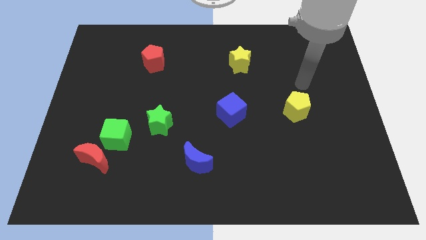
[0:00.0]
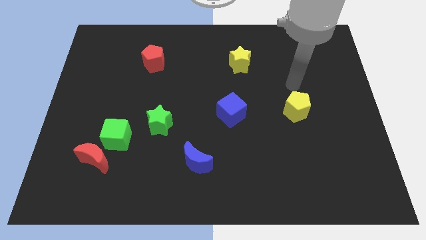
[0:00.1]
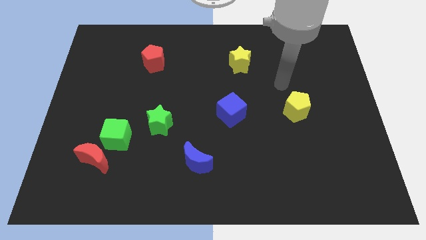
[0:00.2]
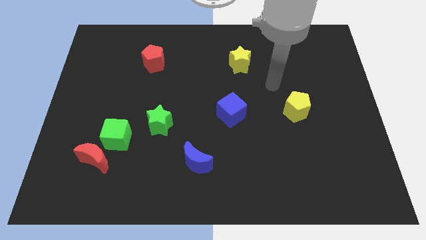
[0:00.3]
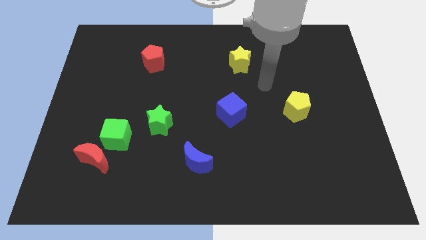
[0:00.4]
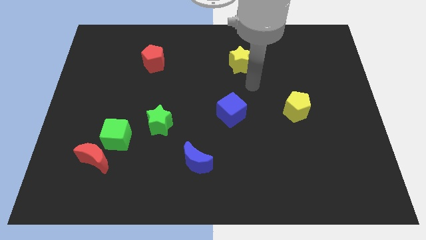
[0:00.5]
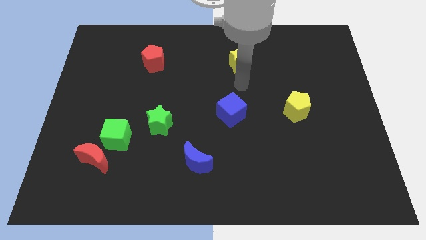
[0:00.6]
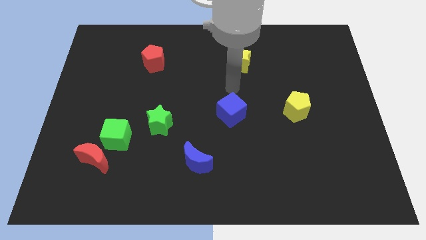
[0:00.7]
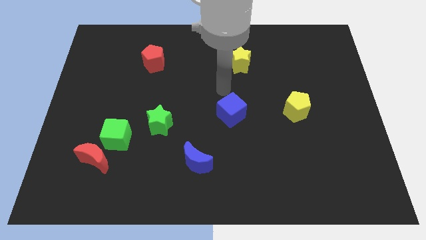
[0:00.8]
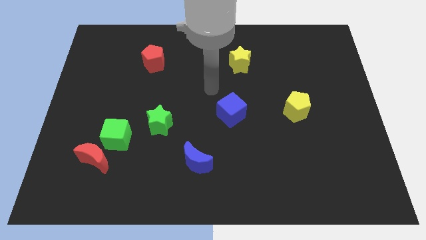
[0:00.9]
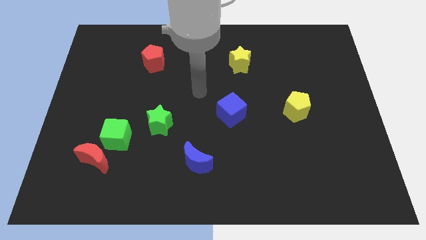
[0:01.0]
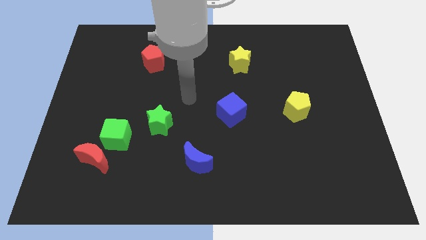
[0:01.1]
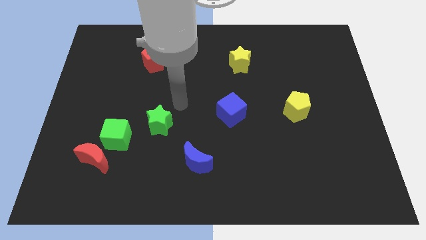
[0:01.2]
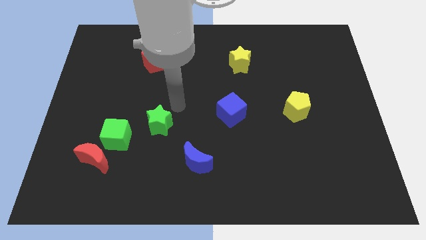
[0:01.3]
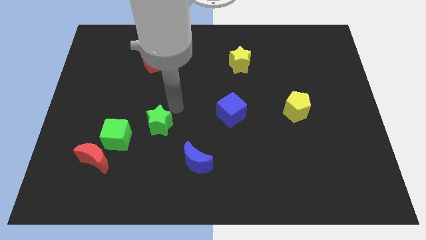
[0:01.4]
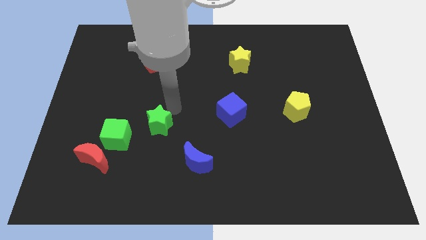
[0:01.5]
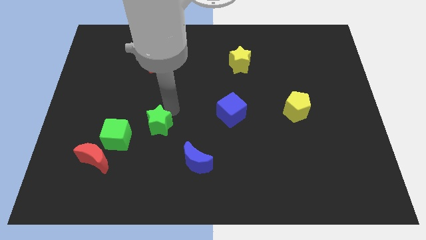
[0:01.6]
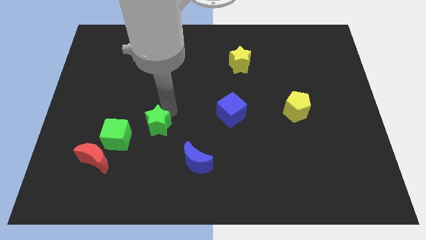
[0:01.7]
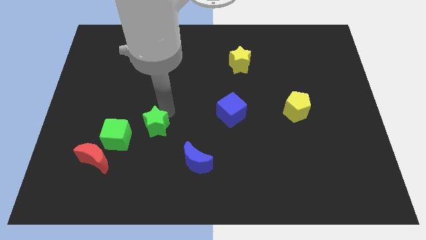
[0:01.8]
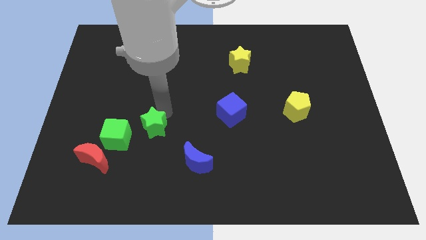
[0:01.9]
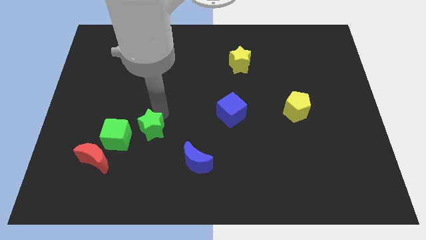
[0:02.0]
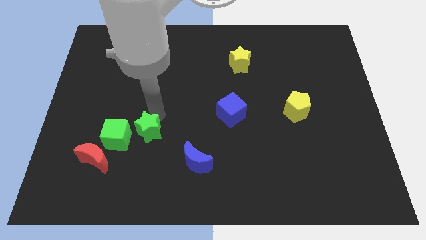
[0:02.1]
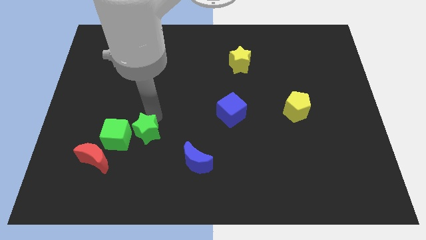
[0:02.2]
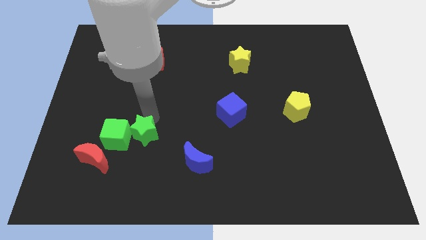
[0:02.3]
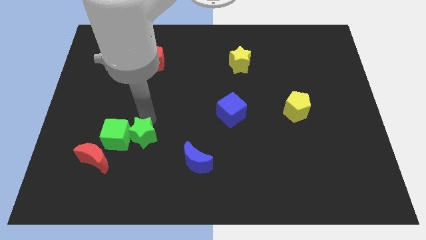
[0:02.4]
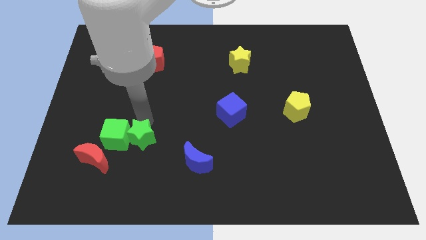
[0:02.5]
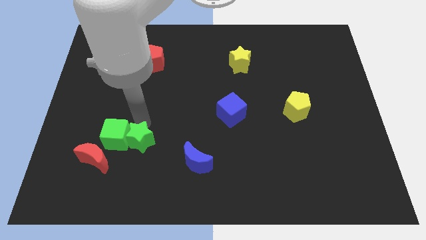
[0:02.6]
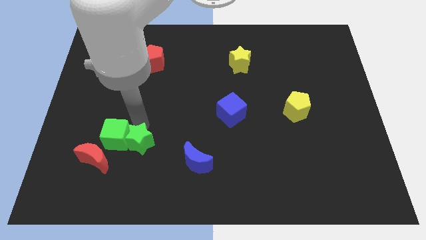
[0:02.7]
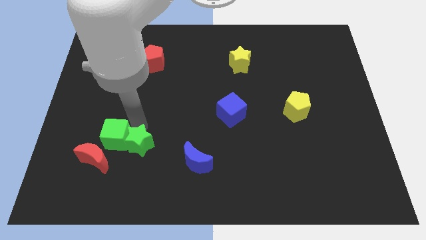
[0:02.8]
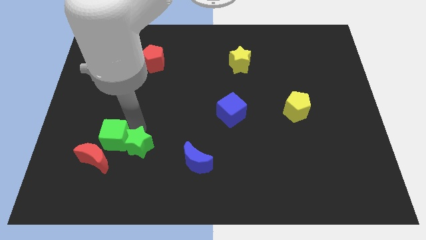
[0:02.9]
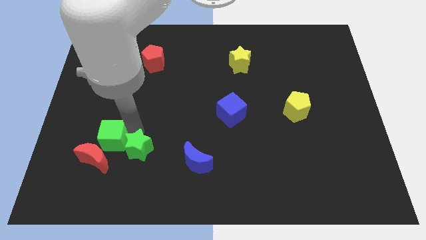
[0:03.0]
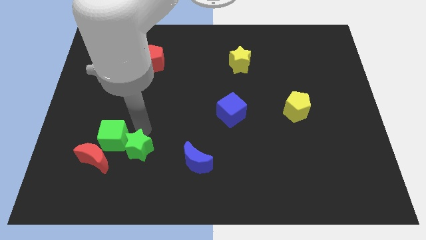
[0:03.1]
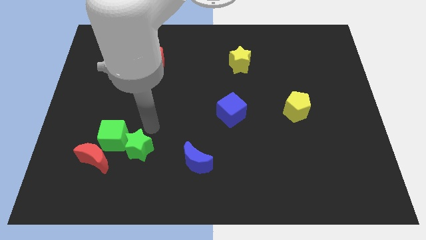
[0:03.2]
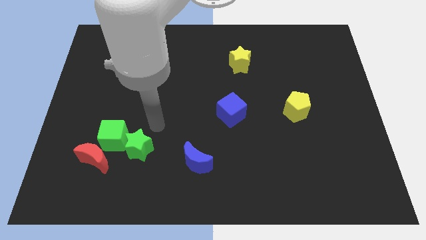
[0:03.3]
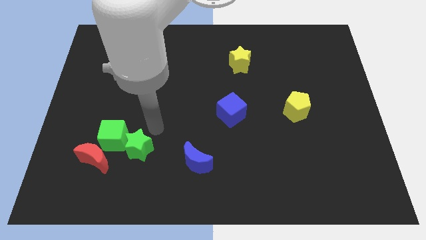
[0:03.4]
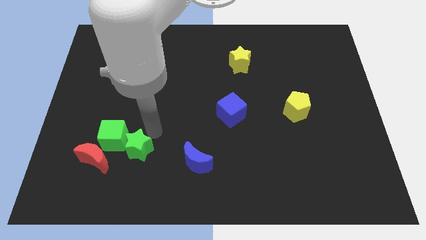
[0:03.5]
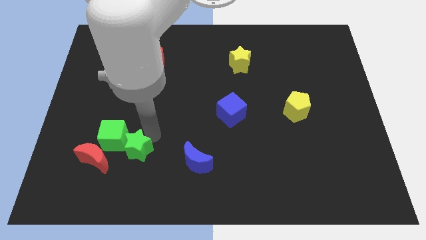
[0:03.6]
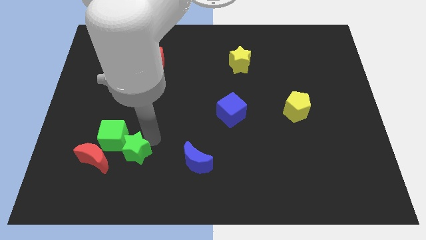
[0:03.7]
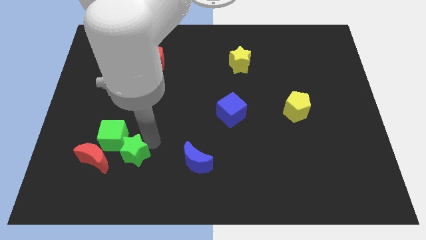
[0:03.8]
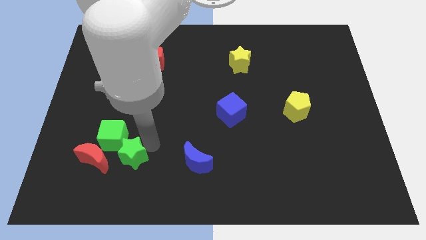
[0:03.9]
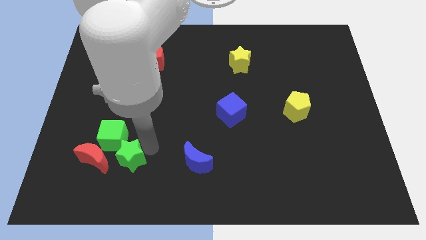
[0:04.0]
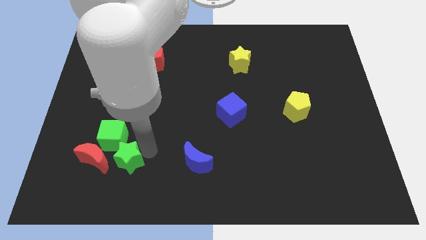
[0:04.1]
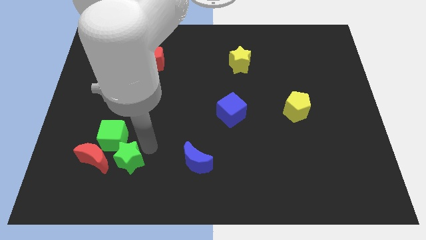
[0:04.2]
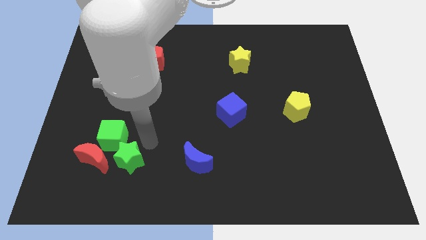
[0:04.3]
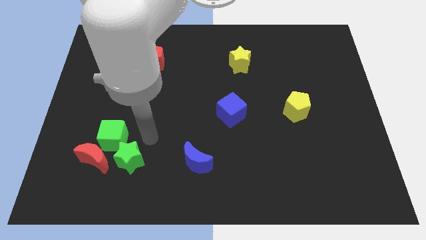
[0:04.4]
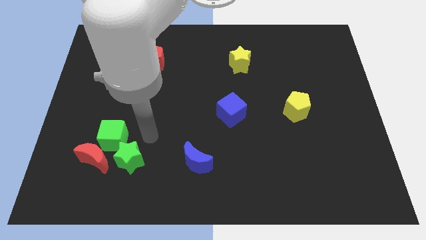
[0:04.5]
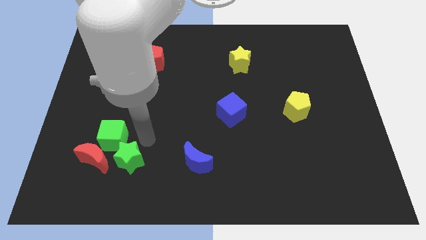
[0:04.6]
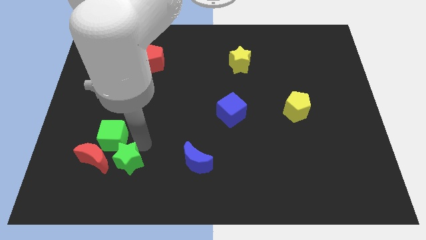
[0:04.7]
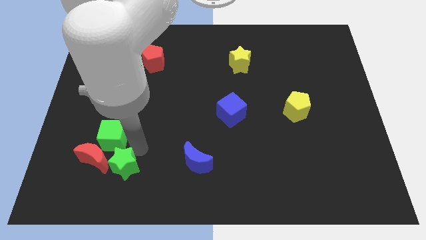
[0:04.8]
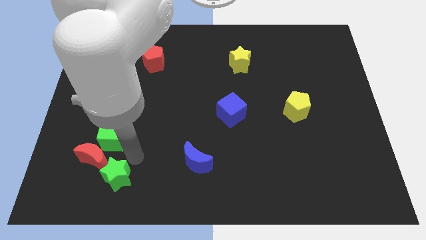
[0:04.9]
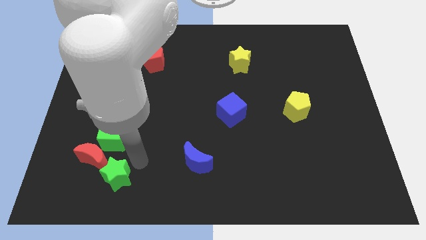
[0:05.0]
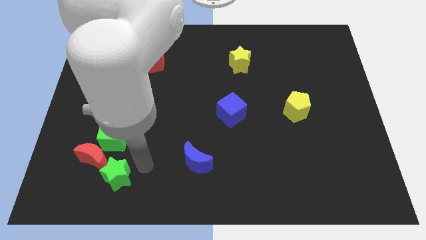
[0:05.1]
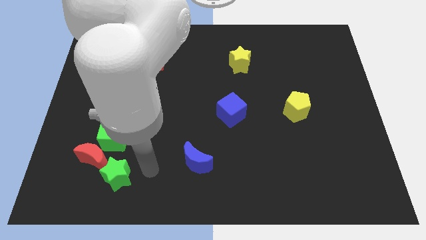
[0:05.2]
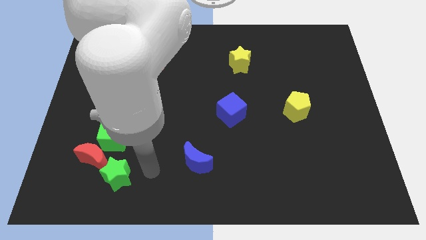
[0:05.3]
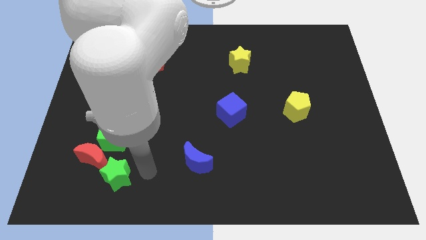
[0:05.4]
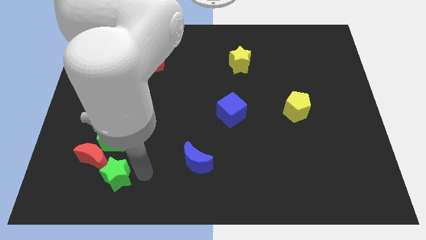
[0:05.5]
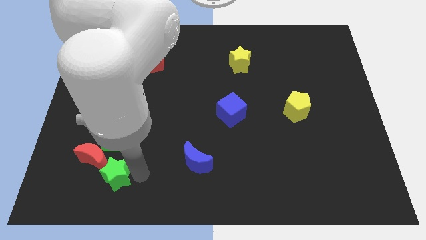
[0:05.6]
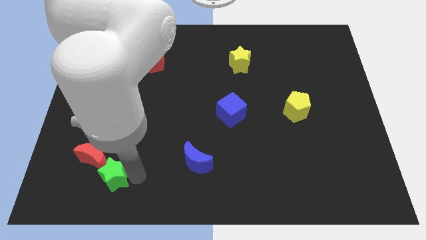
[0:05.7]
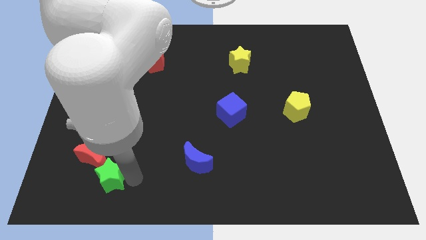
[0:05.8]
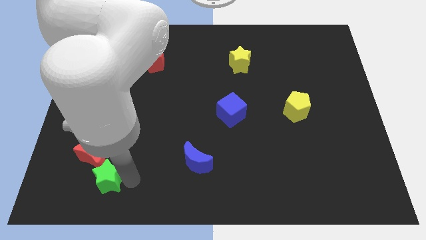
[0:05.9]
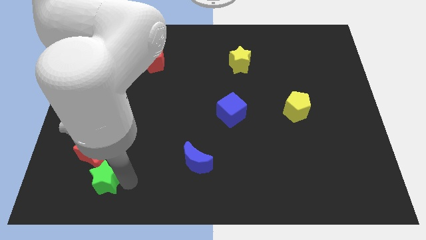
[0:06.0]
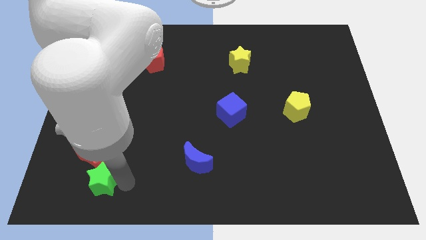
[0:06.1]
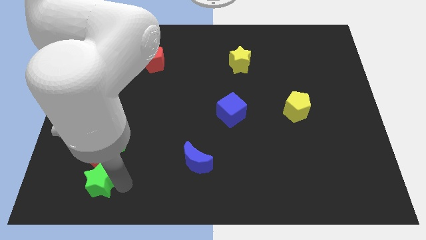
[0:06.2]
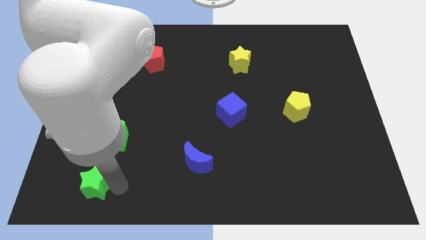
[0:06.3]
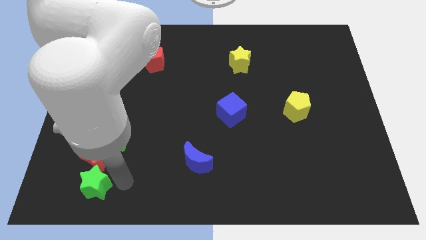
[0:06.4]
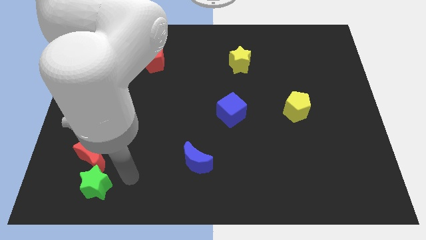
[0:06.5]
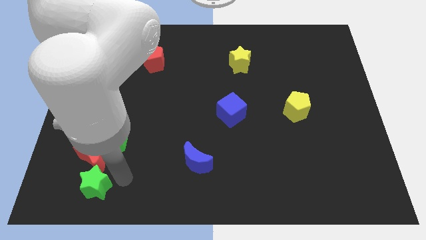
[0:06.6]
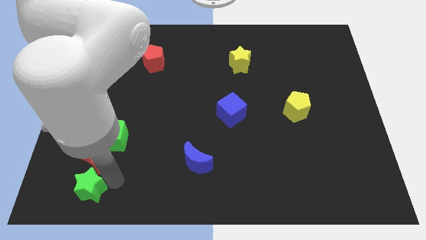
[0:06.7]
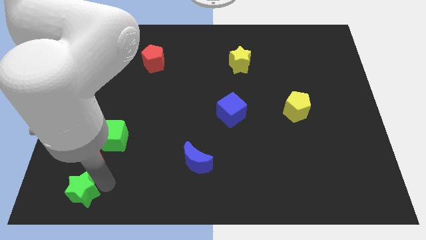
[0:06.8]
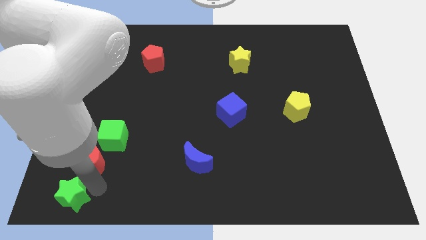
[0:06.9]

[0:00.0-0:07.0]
slide the green star to the bottom left
